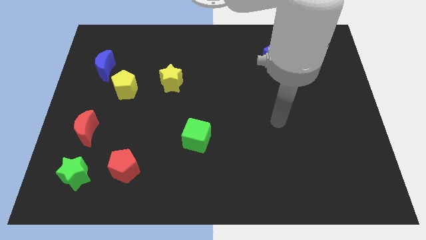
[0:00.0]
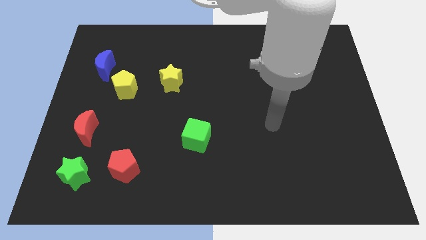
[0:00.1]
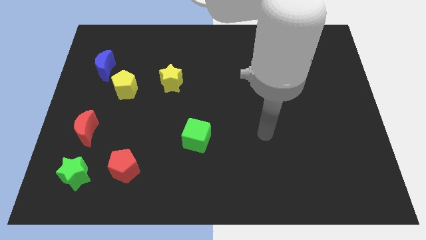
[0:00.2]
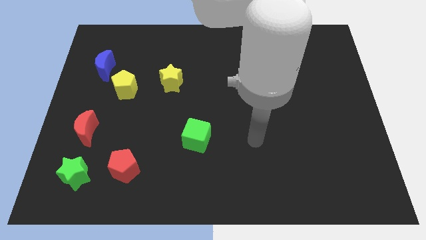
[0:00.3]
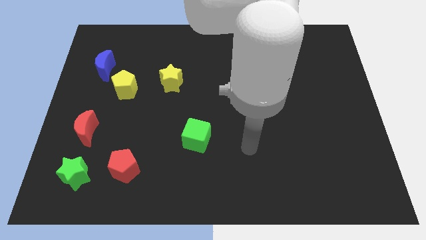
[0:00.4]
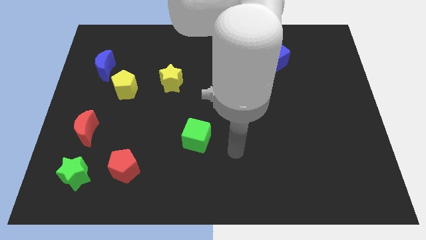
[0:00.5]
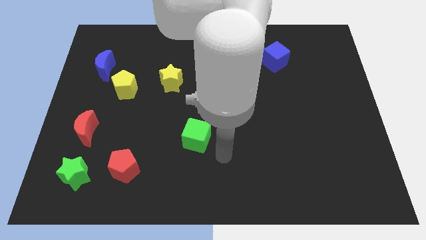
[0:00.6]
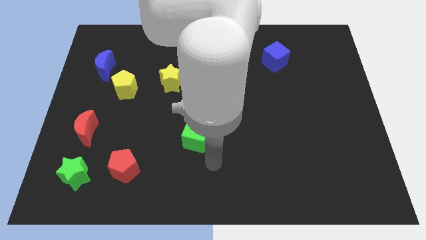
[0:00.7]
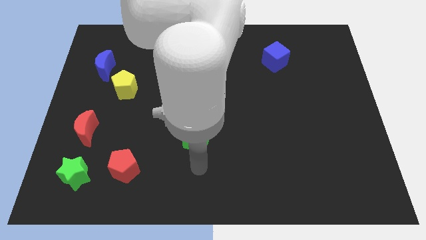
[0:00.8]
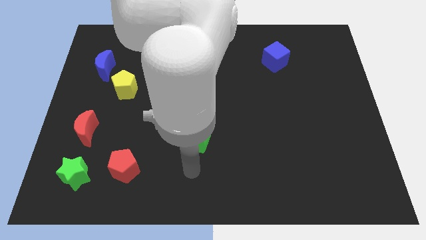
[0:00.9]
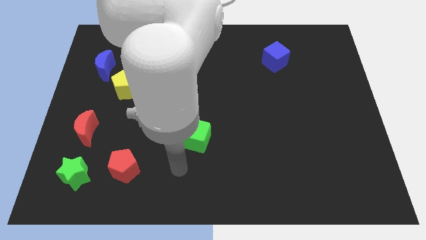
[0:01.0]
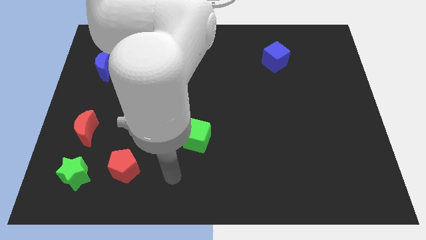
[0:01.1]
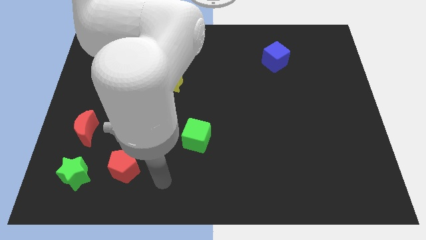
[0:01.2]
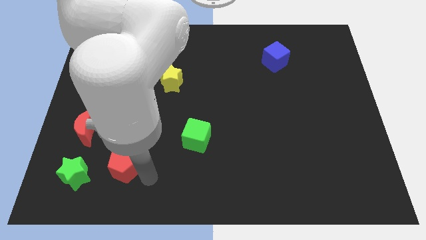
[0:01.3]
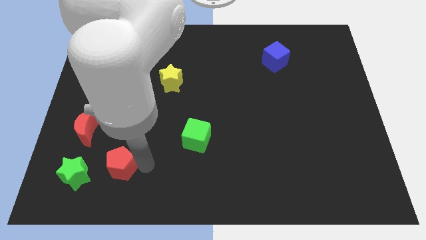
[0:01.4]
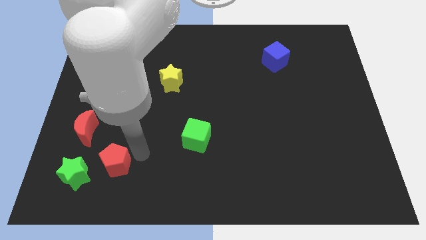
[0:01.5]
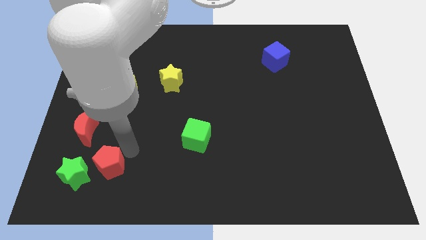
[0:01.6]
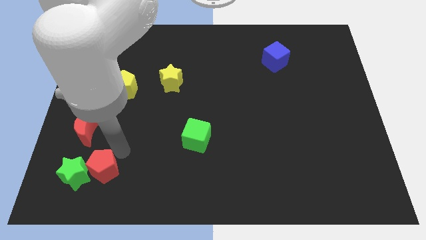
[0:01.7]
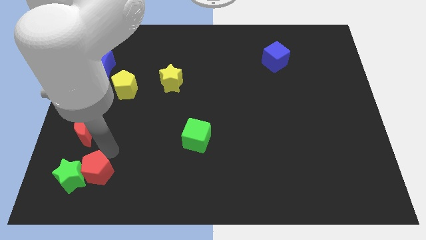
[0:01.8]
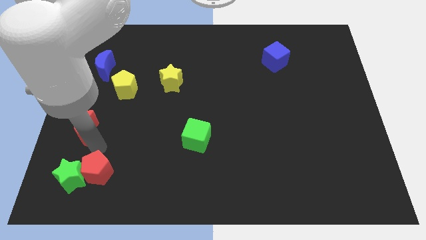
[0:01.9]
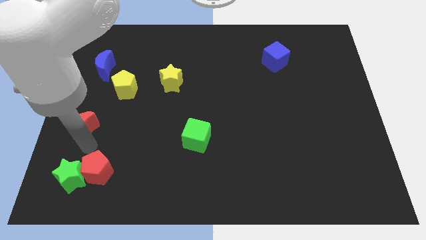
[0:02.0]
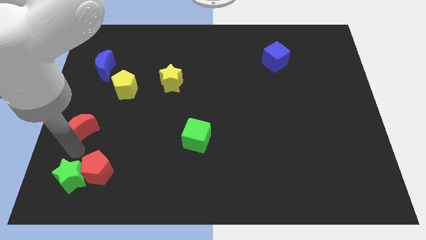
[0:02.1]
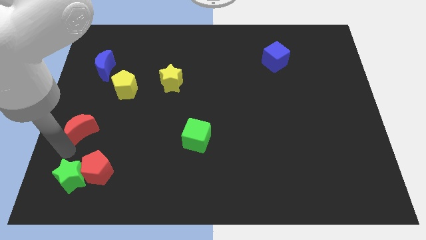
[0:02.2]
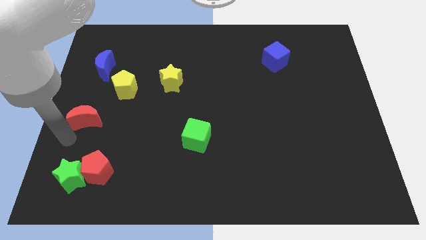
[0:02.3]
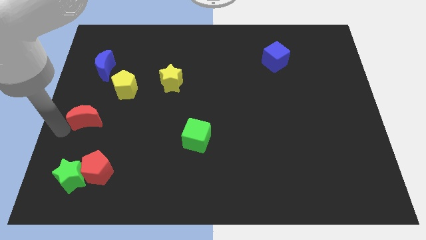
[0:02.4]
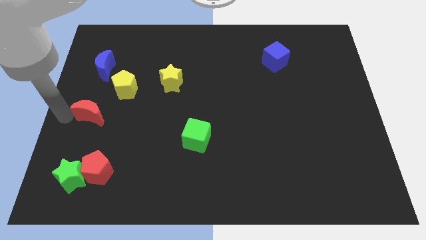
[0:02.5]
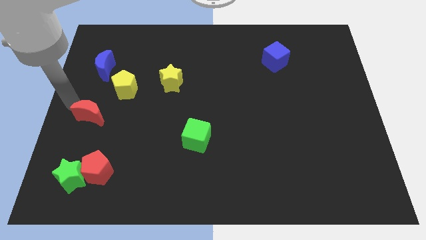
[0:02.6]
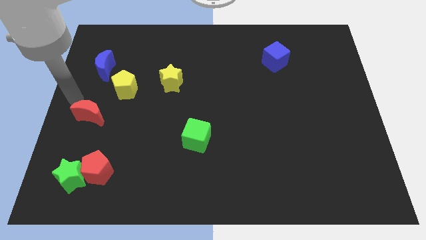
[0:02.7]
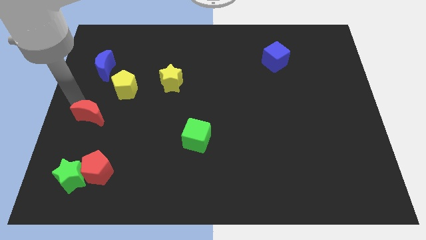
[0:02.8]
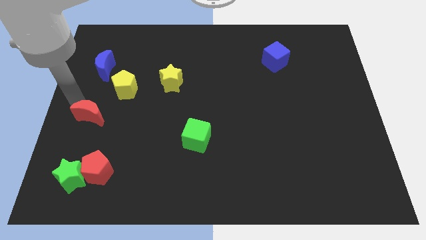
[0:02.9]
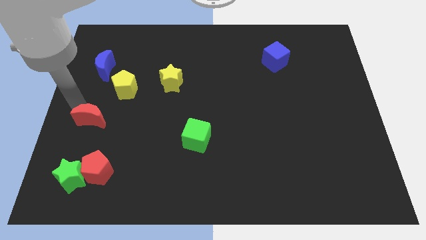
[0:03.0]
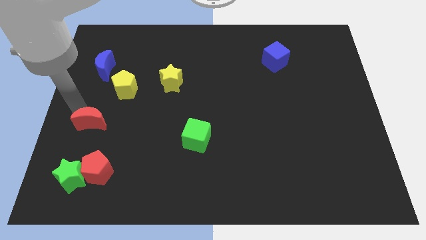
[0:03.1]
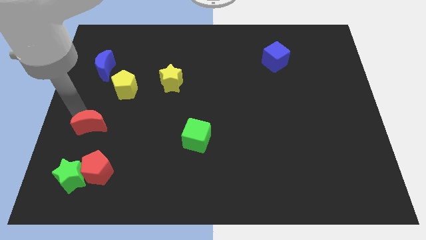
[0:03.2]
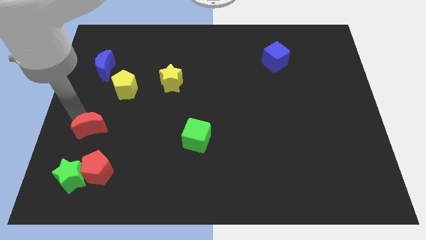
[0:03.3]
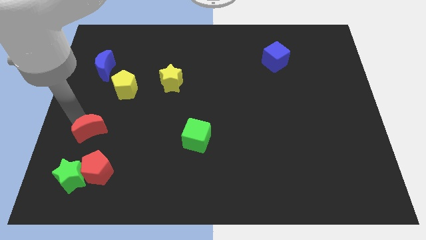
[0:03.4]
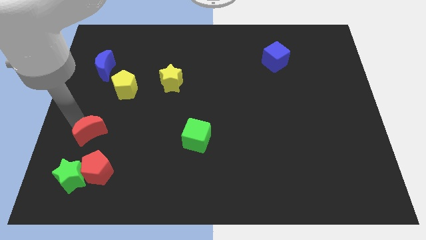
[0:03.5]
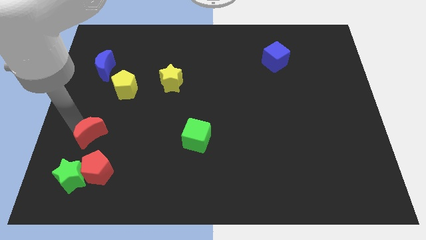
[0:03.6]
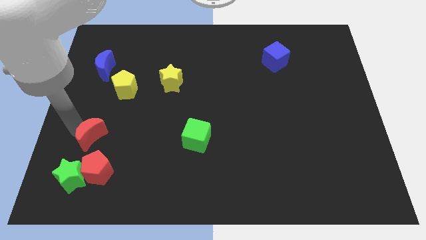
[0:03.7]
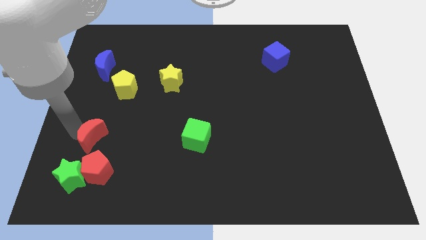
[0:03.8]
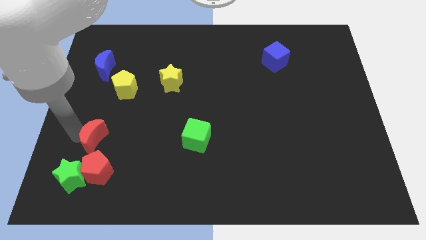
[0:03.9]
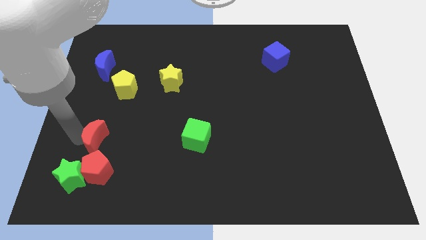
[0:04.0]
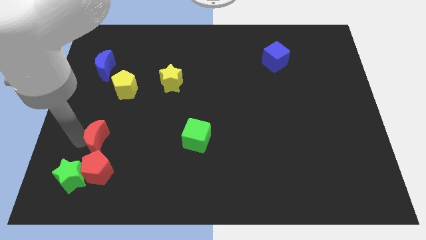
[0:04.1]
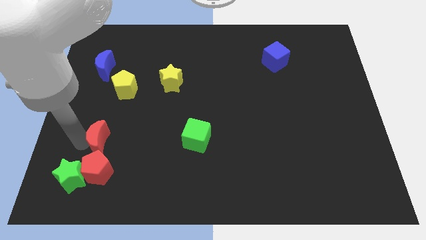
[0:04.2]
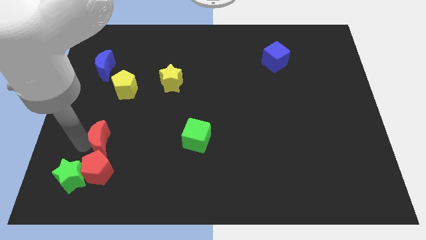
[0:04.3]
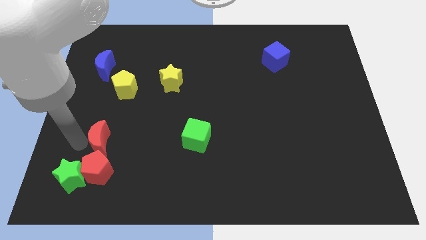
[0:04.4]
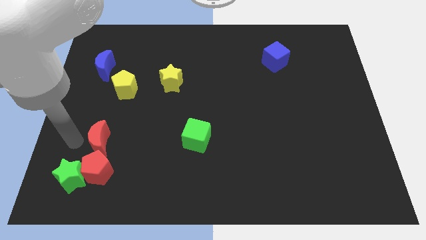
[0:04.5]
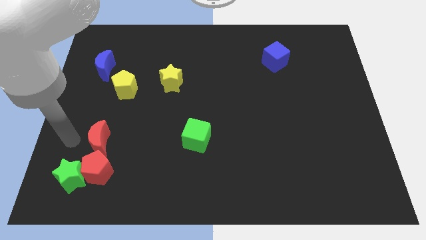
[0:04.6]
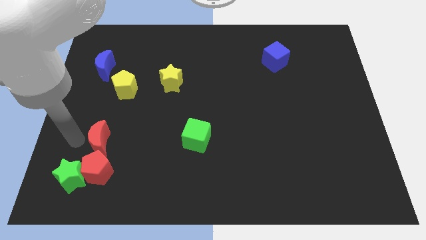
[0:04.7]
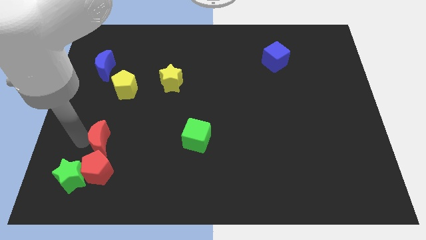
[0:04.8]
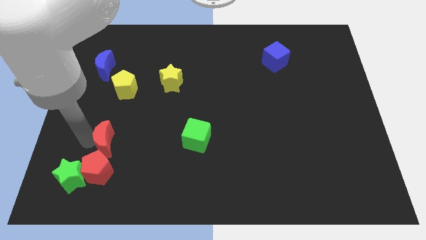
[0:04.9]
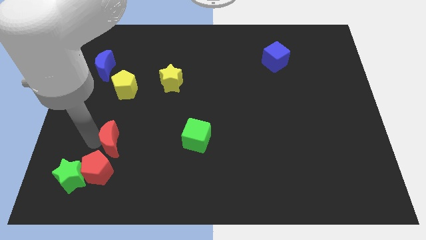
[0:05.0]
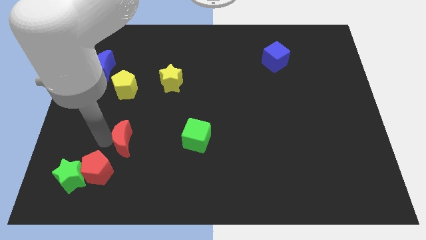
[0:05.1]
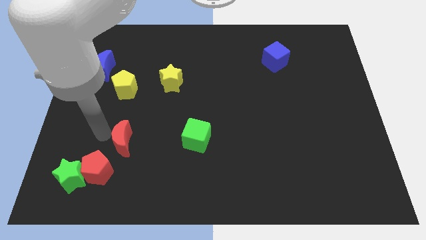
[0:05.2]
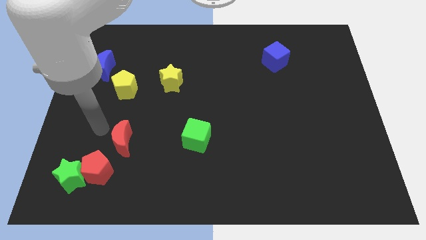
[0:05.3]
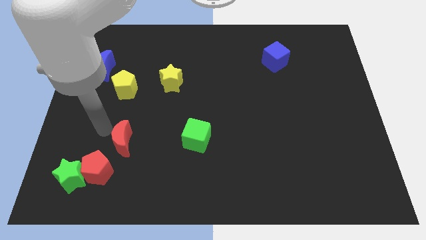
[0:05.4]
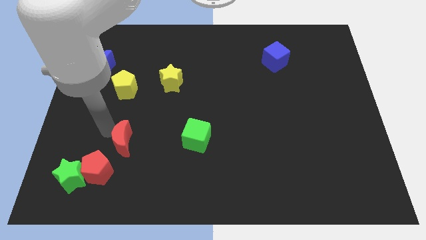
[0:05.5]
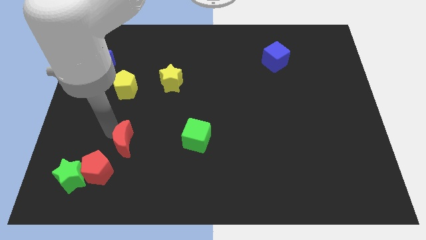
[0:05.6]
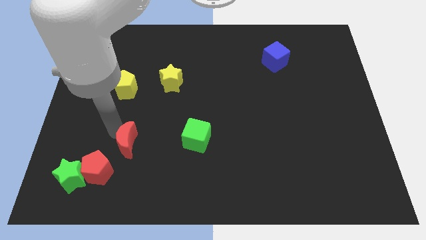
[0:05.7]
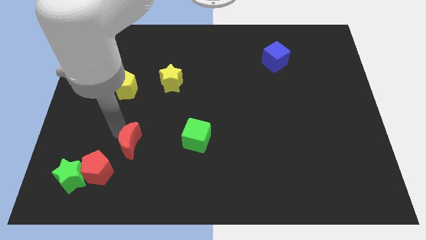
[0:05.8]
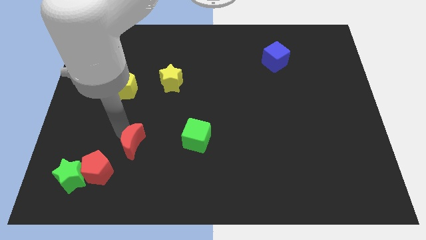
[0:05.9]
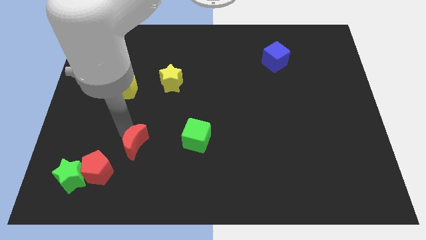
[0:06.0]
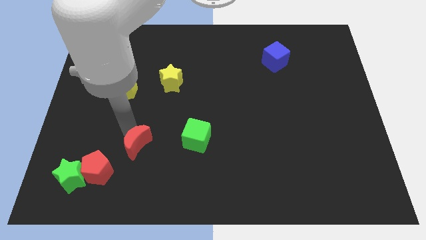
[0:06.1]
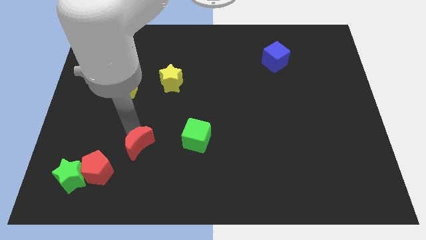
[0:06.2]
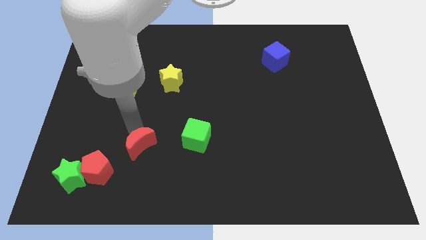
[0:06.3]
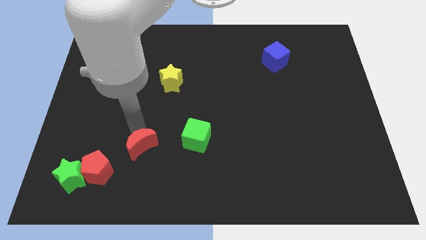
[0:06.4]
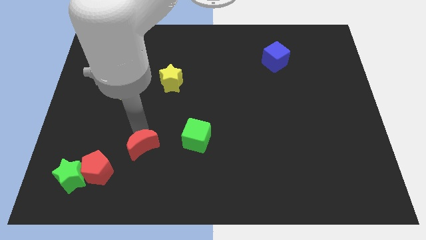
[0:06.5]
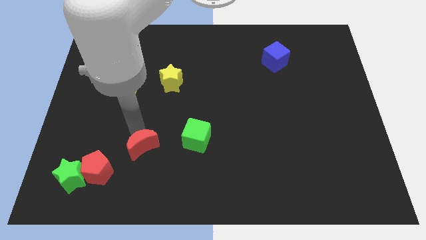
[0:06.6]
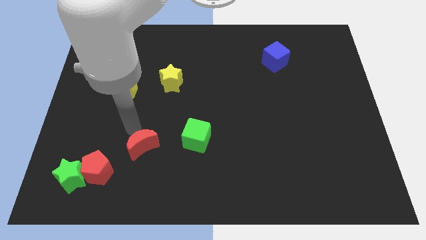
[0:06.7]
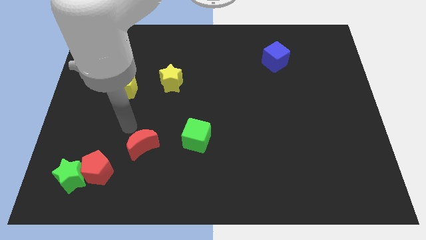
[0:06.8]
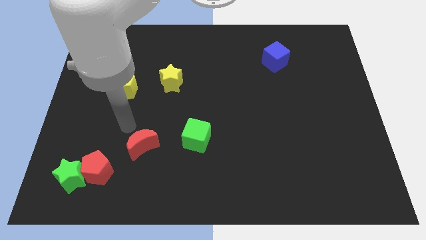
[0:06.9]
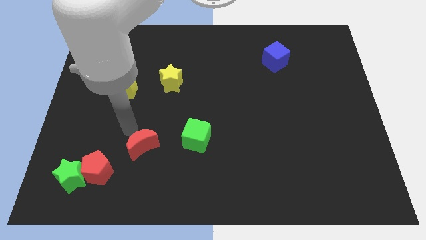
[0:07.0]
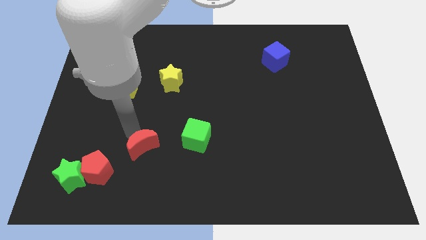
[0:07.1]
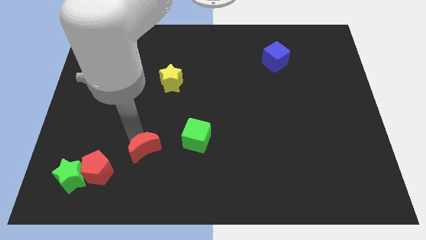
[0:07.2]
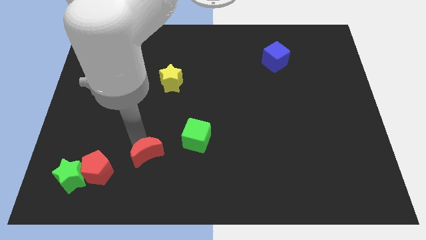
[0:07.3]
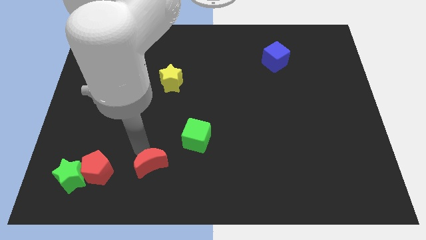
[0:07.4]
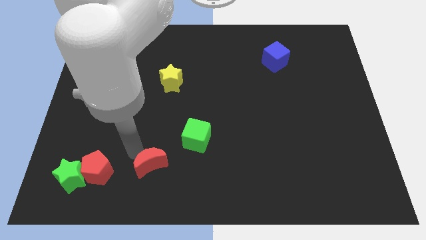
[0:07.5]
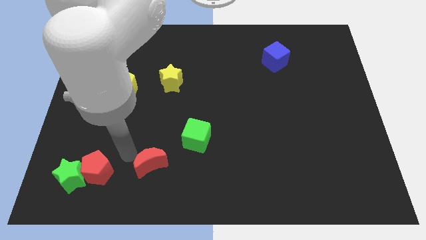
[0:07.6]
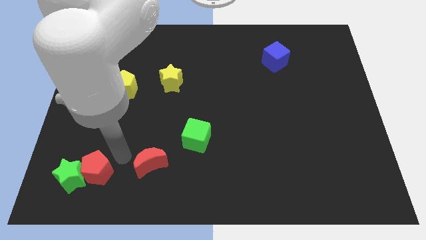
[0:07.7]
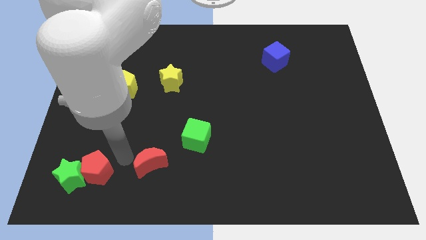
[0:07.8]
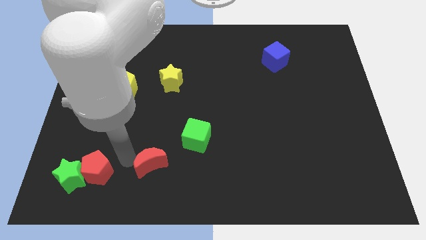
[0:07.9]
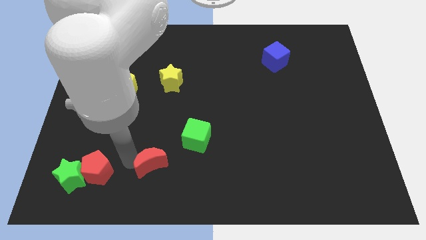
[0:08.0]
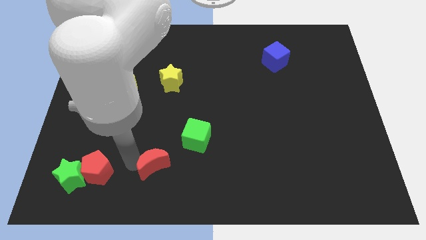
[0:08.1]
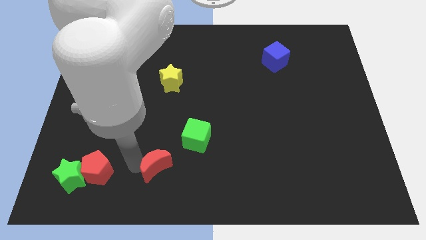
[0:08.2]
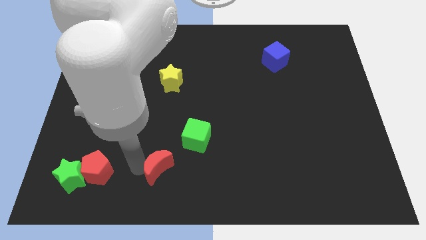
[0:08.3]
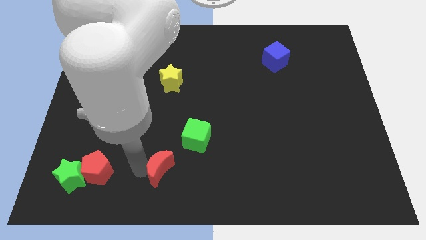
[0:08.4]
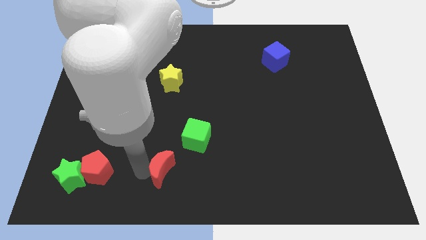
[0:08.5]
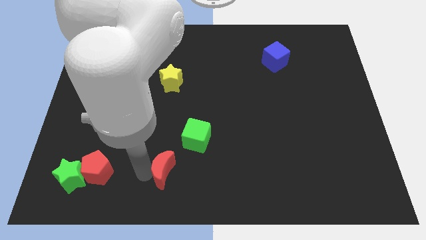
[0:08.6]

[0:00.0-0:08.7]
push the red moon to the bottom
